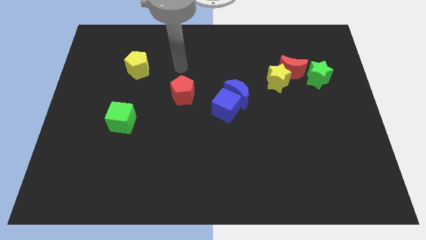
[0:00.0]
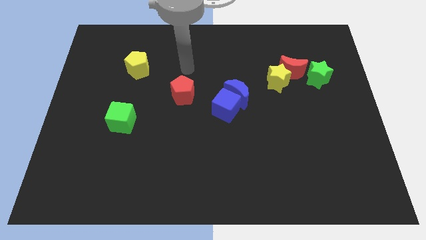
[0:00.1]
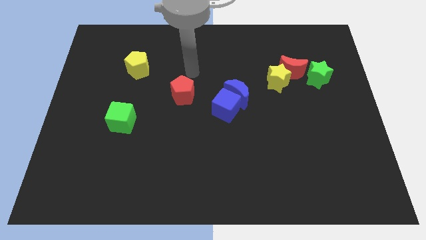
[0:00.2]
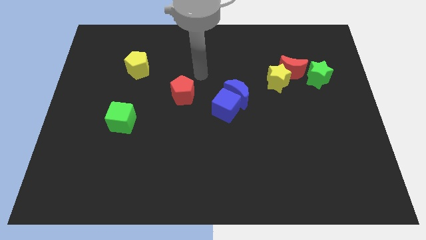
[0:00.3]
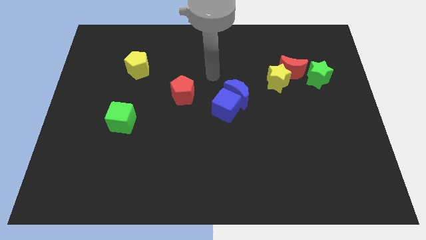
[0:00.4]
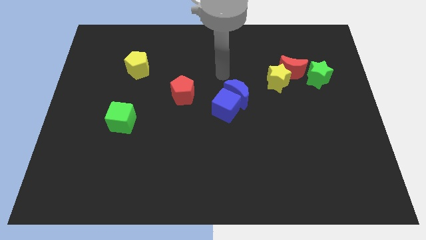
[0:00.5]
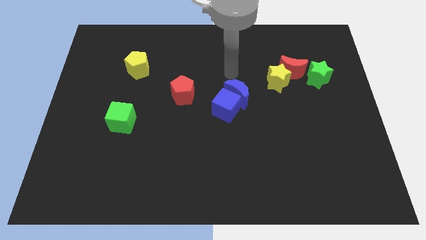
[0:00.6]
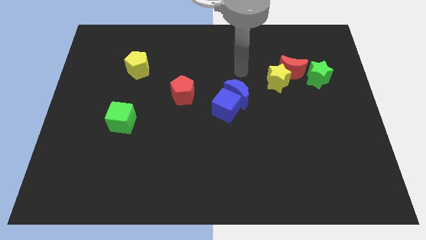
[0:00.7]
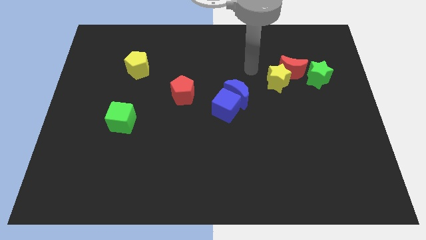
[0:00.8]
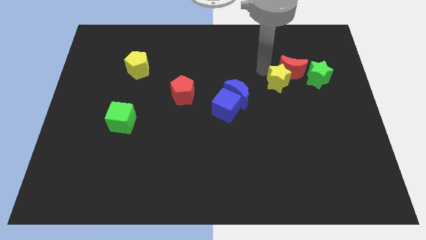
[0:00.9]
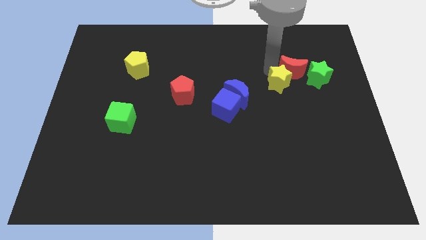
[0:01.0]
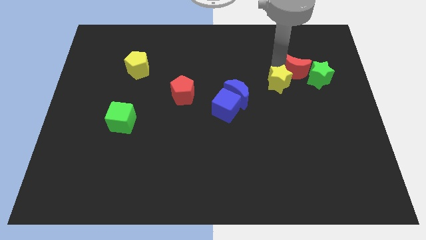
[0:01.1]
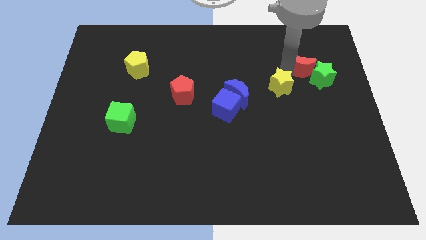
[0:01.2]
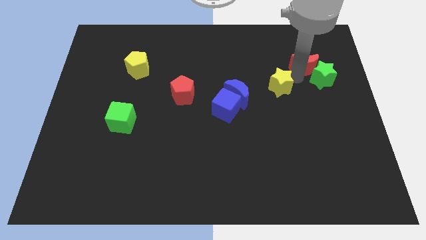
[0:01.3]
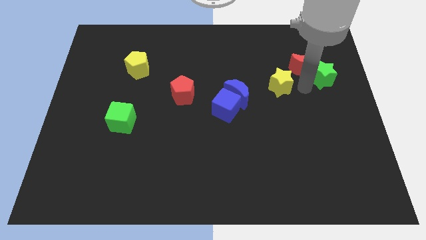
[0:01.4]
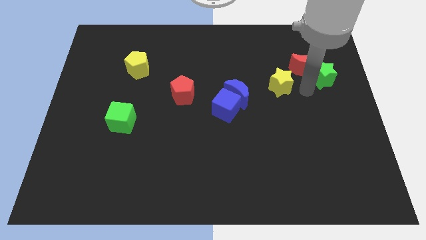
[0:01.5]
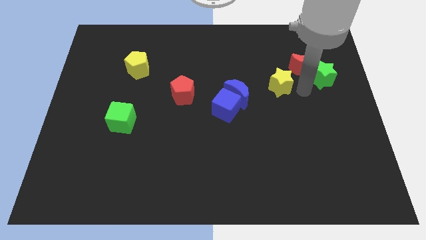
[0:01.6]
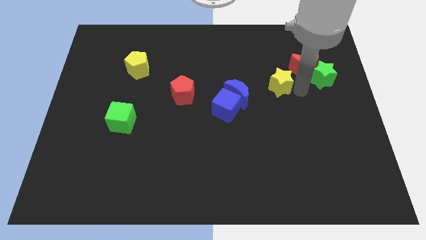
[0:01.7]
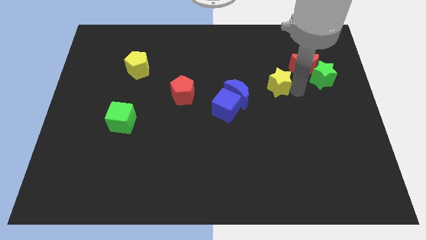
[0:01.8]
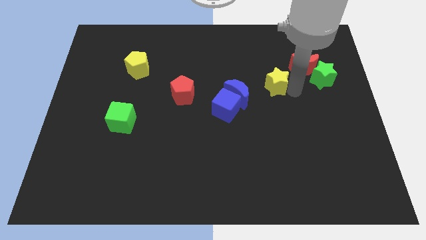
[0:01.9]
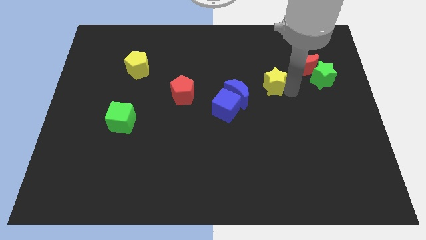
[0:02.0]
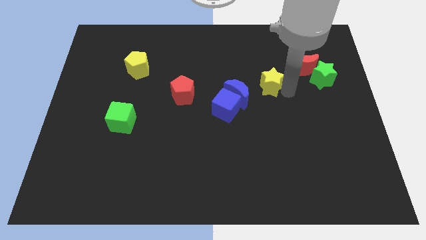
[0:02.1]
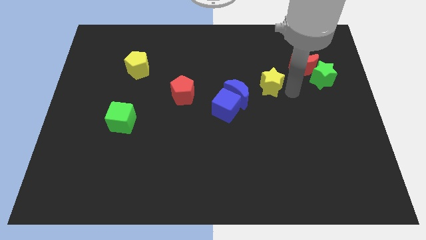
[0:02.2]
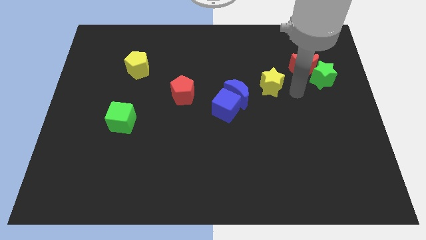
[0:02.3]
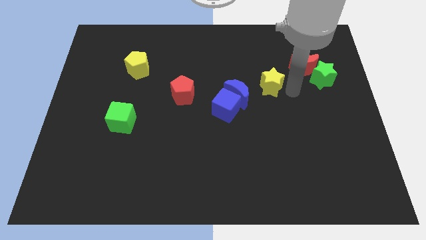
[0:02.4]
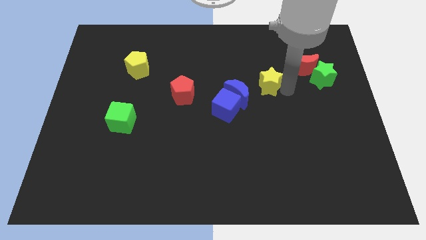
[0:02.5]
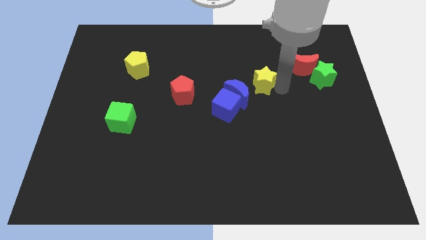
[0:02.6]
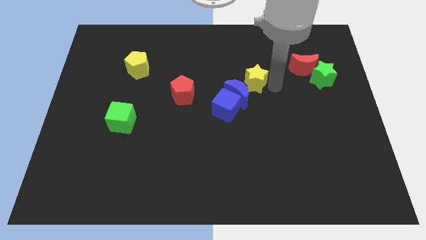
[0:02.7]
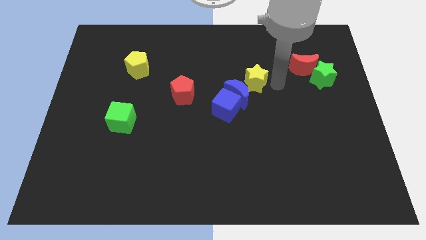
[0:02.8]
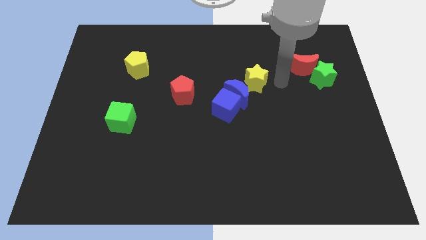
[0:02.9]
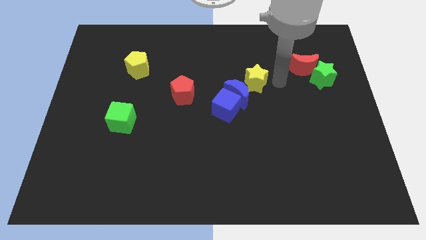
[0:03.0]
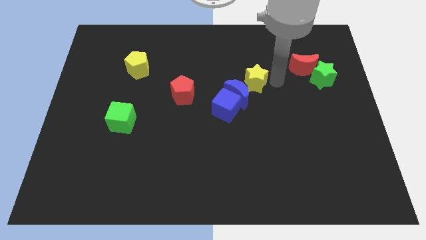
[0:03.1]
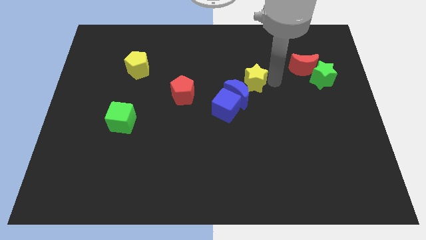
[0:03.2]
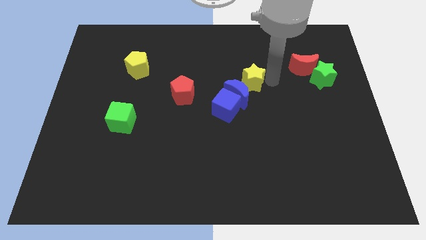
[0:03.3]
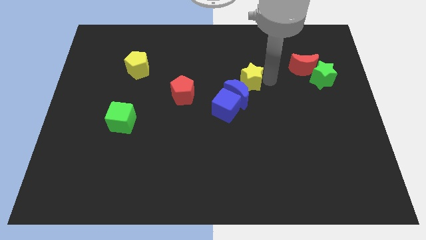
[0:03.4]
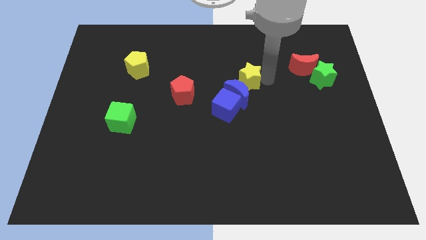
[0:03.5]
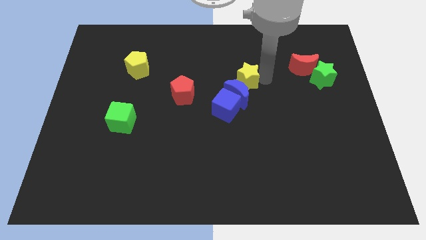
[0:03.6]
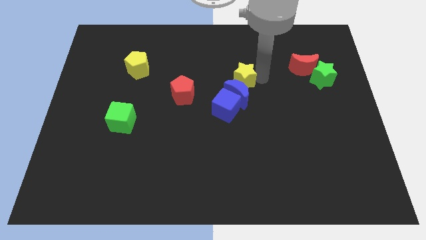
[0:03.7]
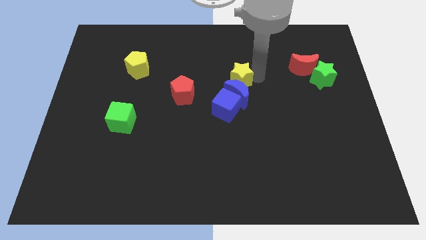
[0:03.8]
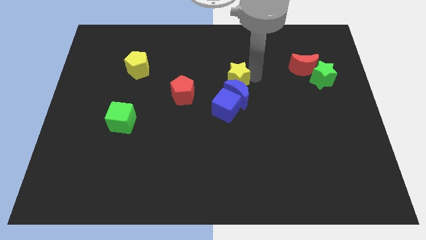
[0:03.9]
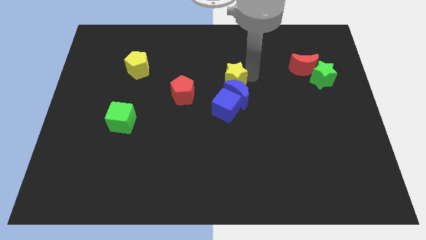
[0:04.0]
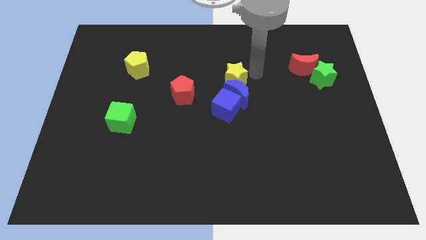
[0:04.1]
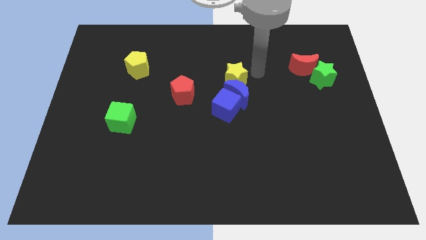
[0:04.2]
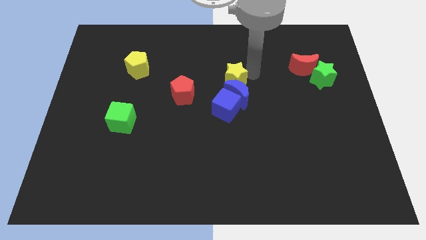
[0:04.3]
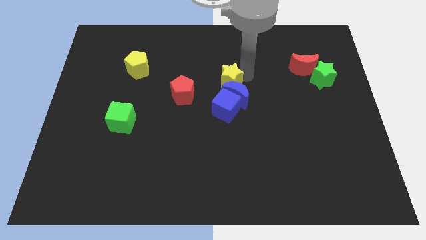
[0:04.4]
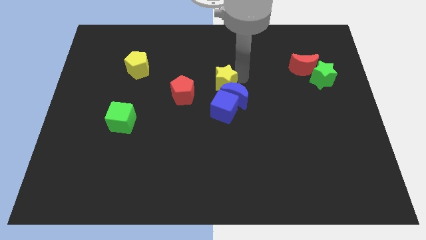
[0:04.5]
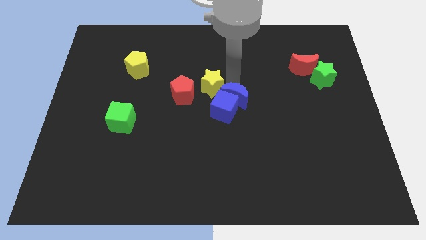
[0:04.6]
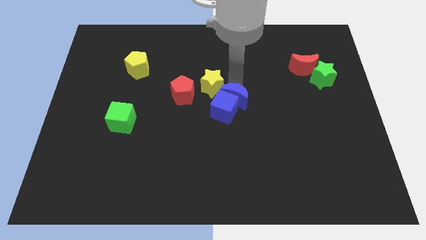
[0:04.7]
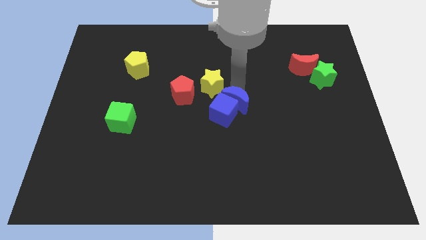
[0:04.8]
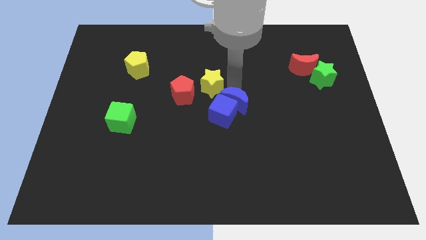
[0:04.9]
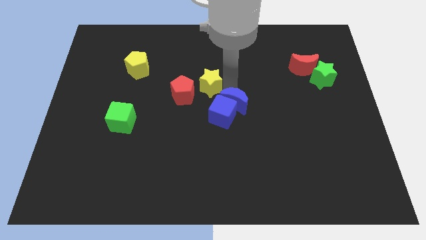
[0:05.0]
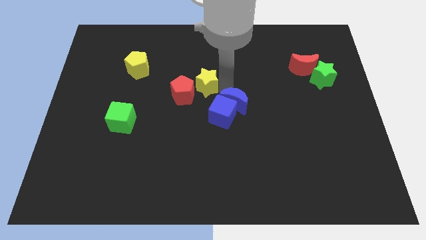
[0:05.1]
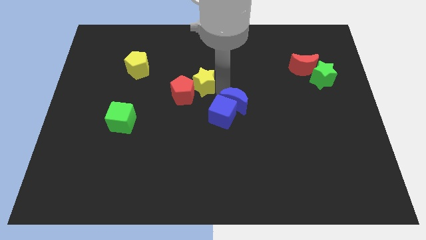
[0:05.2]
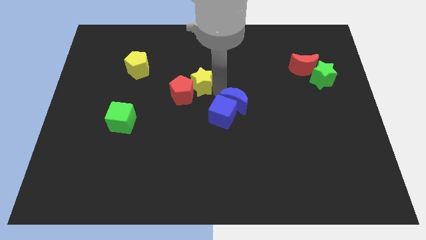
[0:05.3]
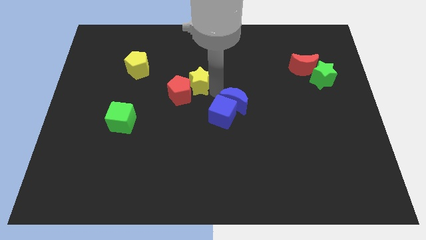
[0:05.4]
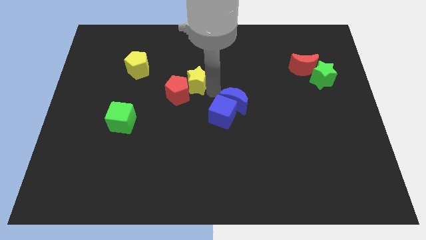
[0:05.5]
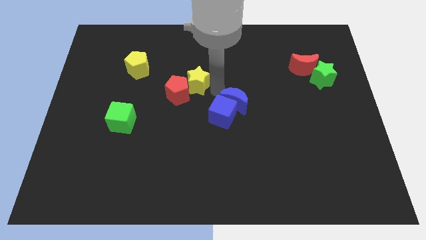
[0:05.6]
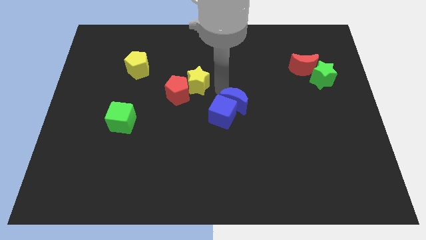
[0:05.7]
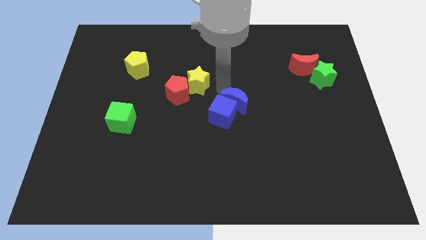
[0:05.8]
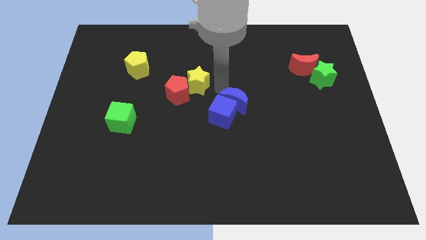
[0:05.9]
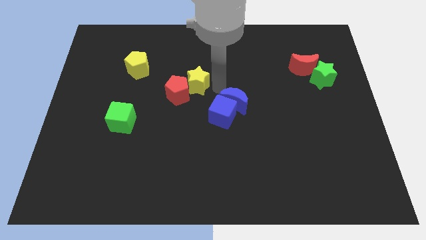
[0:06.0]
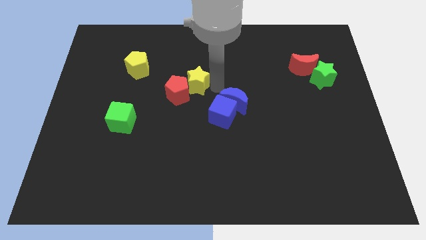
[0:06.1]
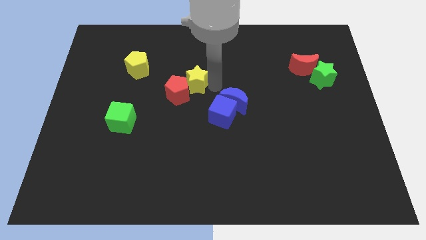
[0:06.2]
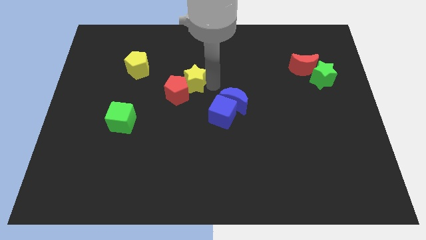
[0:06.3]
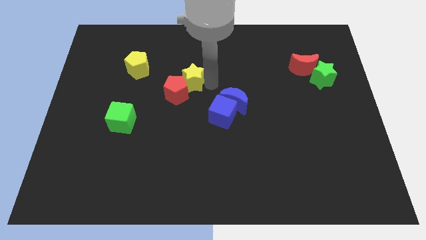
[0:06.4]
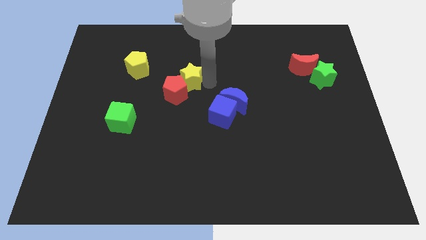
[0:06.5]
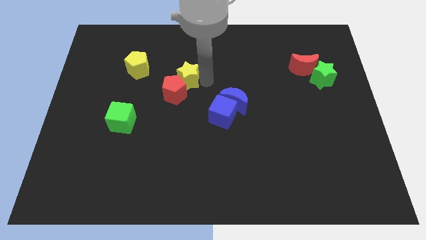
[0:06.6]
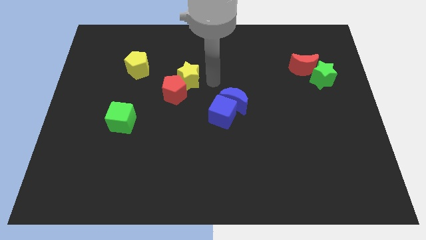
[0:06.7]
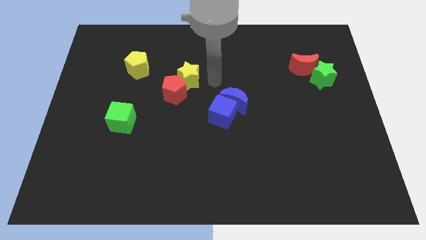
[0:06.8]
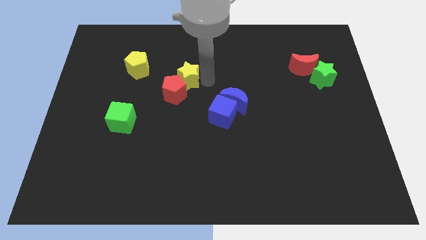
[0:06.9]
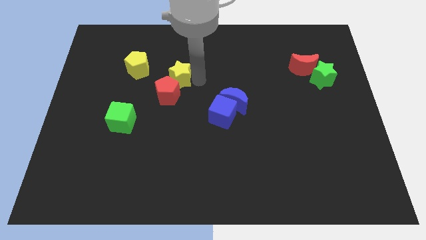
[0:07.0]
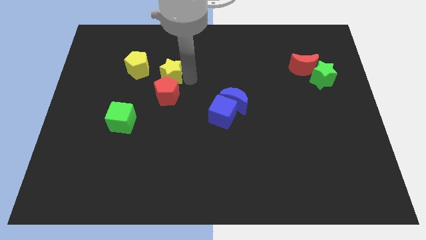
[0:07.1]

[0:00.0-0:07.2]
slide the yellow star to the top left side of the red pentagon

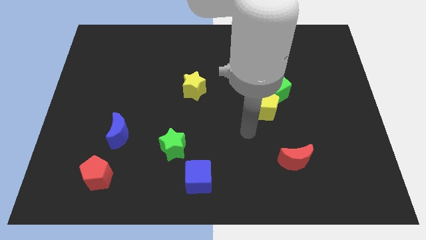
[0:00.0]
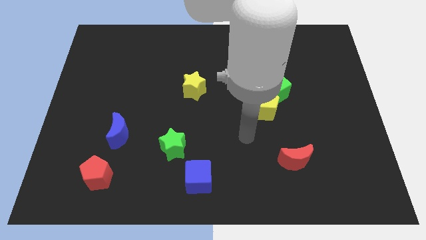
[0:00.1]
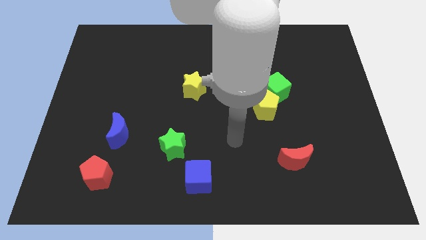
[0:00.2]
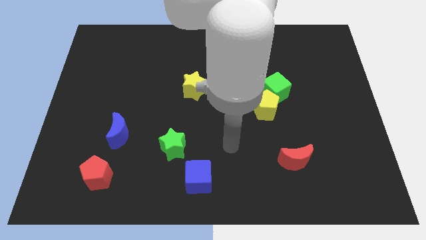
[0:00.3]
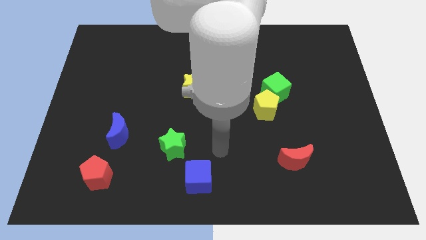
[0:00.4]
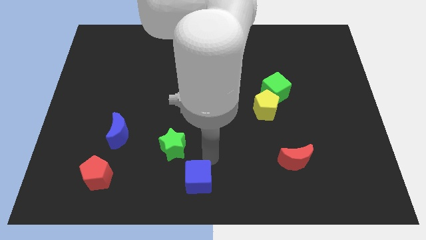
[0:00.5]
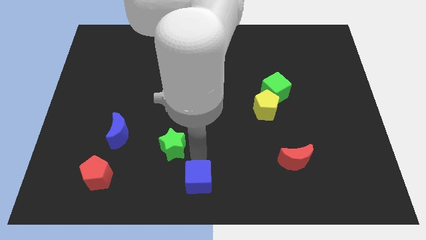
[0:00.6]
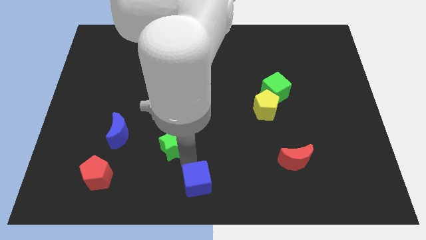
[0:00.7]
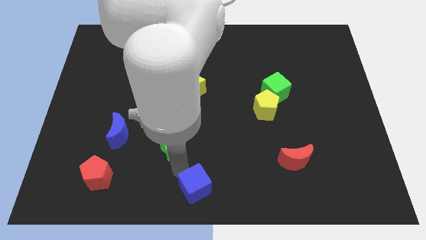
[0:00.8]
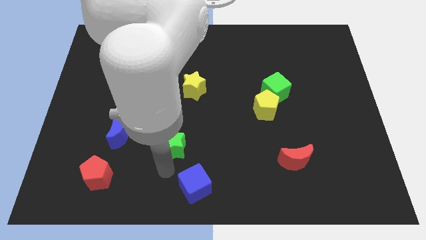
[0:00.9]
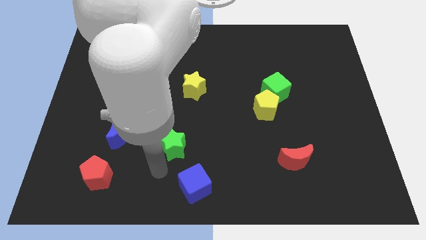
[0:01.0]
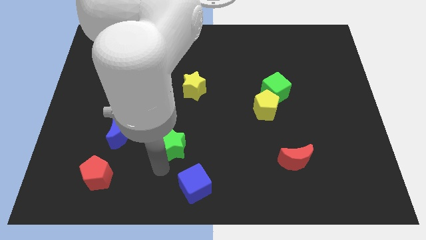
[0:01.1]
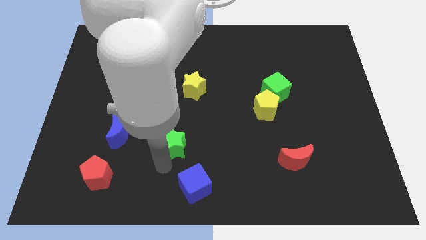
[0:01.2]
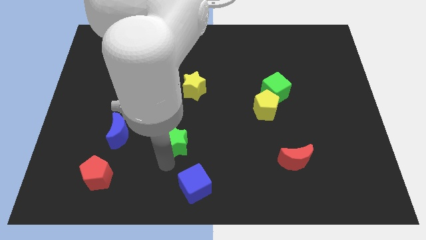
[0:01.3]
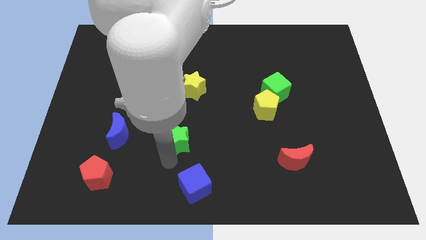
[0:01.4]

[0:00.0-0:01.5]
move the green star below the yellow star
